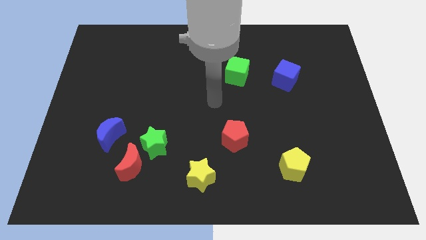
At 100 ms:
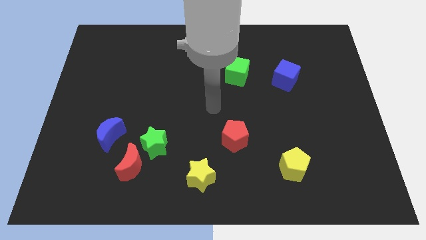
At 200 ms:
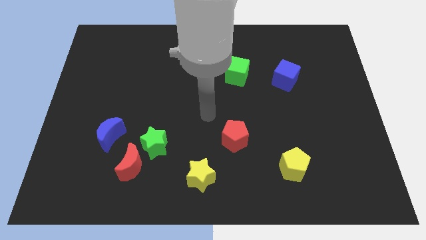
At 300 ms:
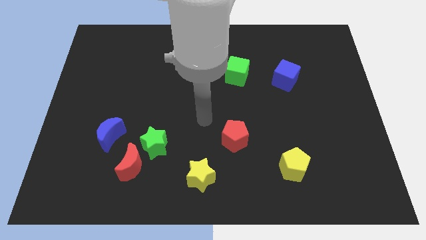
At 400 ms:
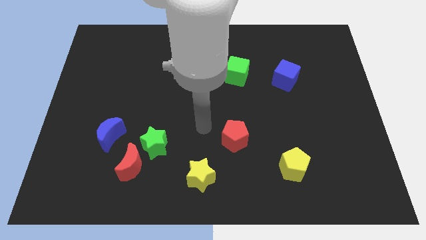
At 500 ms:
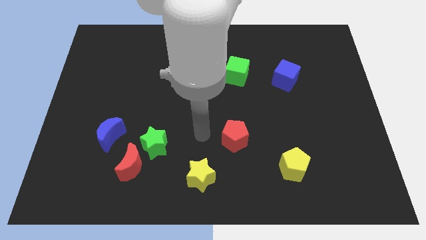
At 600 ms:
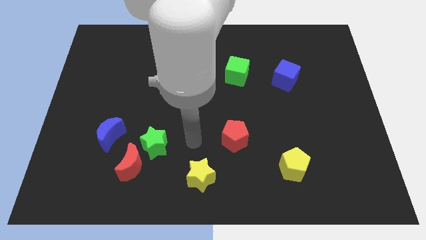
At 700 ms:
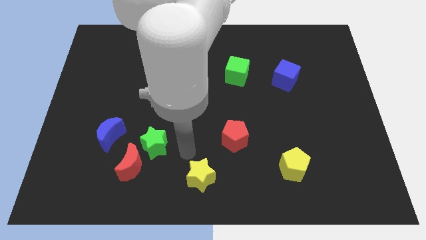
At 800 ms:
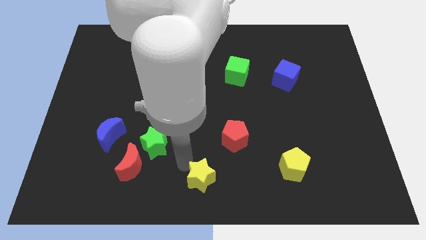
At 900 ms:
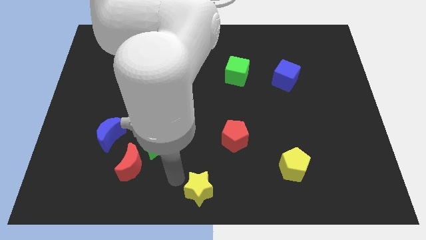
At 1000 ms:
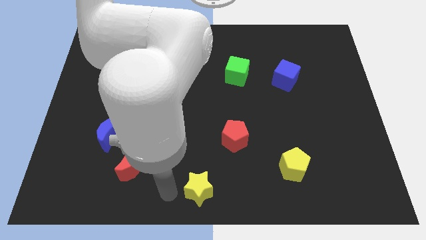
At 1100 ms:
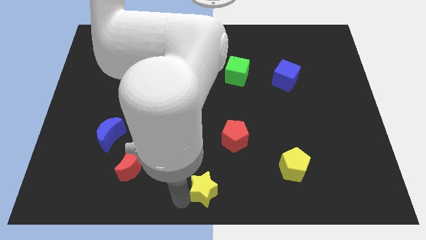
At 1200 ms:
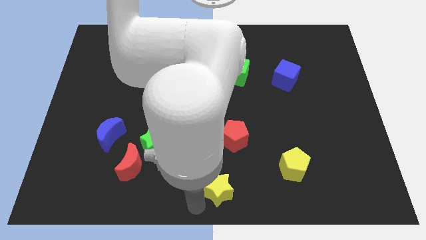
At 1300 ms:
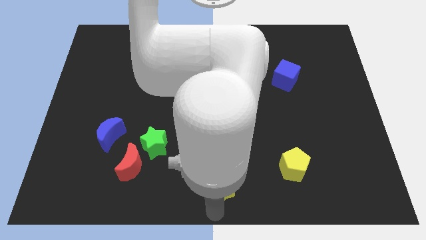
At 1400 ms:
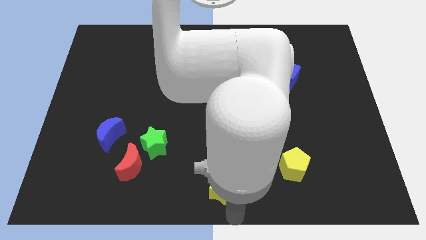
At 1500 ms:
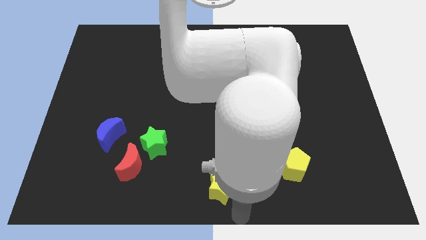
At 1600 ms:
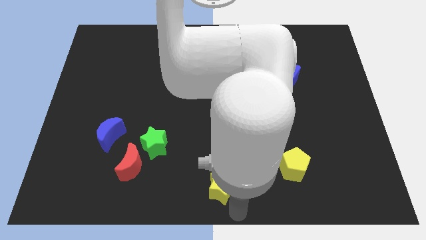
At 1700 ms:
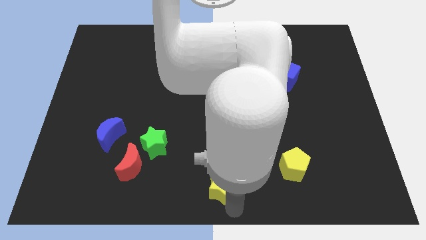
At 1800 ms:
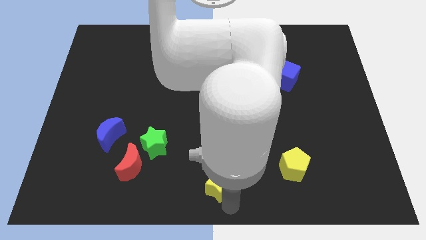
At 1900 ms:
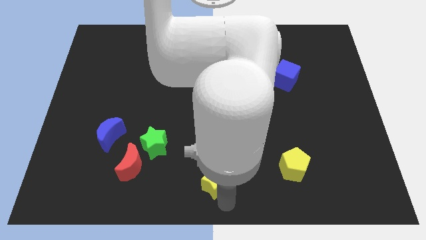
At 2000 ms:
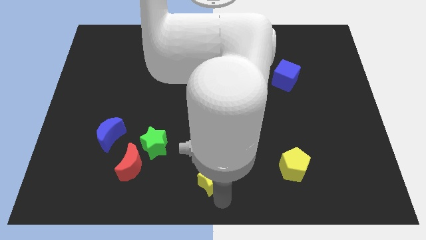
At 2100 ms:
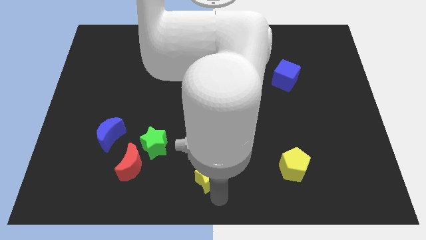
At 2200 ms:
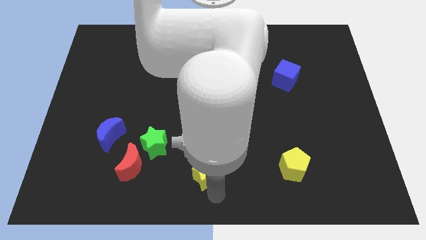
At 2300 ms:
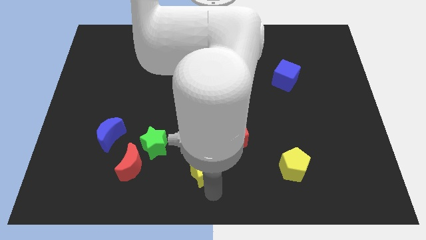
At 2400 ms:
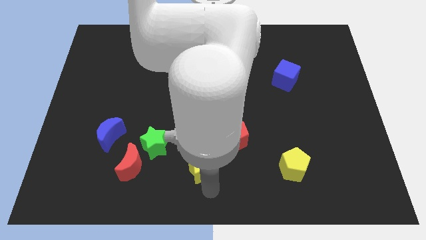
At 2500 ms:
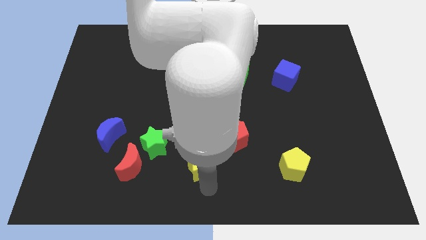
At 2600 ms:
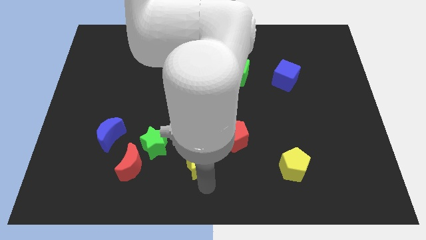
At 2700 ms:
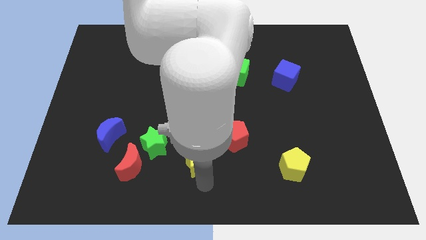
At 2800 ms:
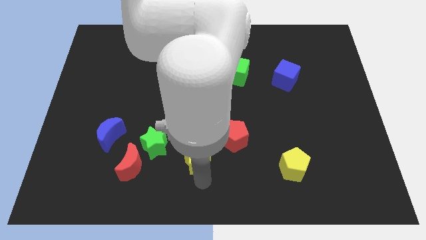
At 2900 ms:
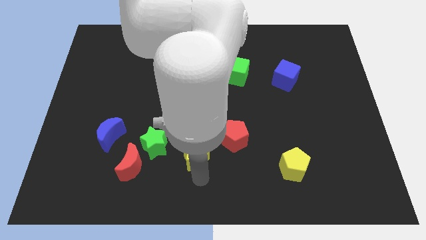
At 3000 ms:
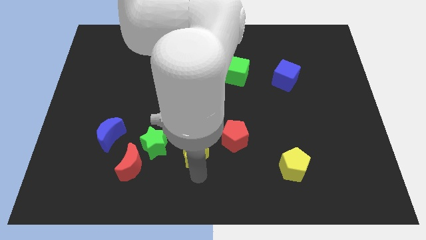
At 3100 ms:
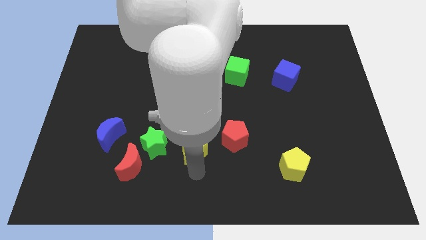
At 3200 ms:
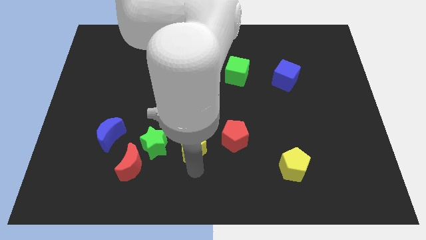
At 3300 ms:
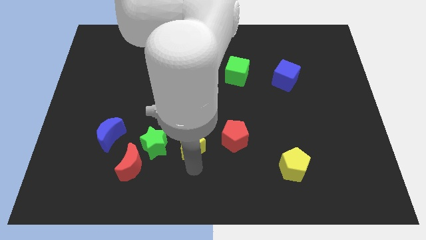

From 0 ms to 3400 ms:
move the yellow star slightly up

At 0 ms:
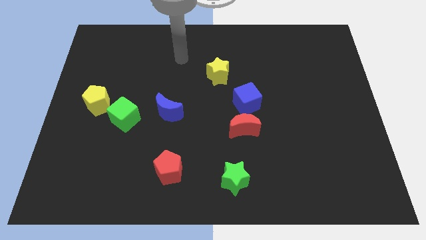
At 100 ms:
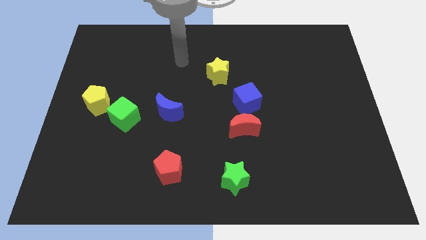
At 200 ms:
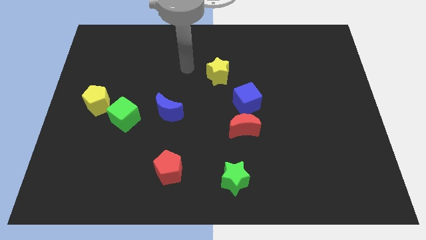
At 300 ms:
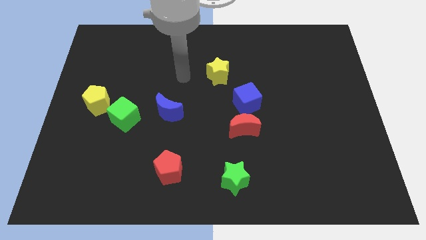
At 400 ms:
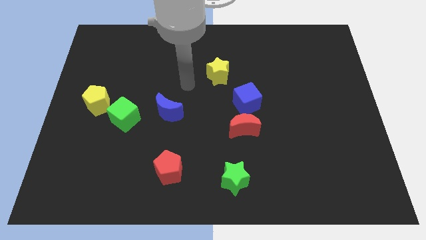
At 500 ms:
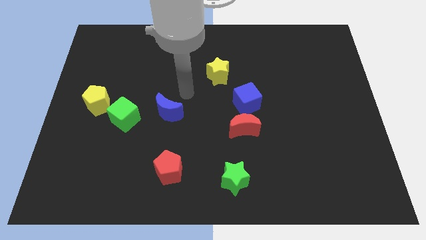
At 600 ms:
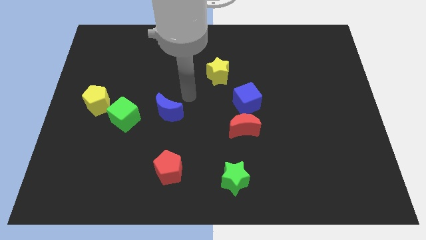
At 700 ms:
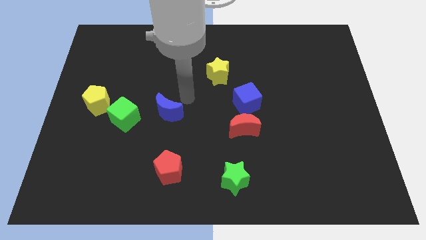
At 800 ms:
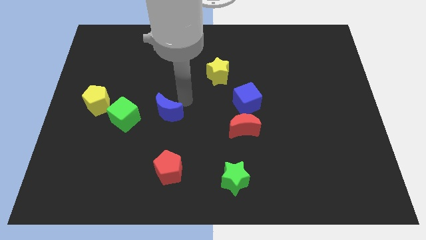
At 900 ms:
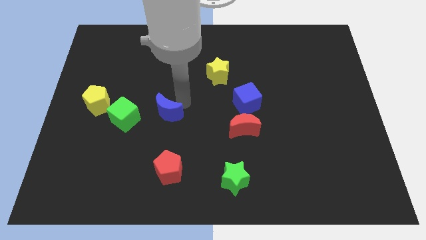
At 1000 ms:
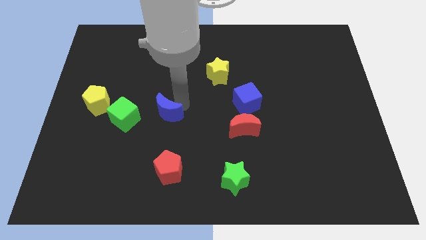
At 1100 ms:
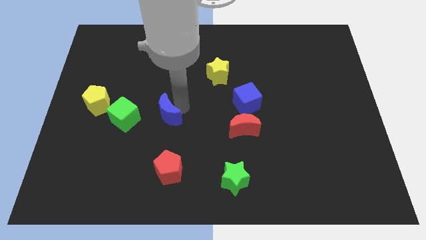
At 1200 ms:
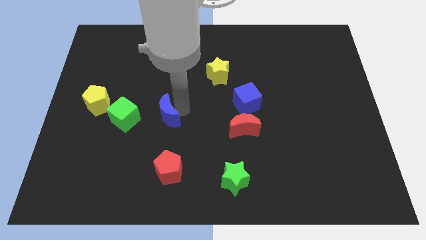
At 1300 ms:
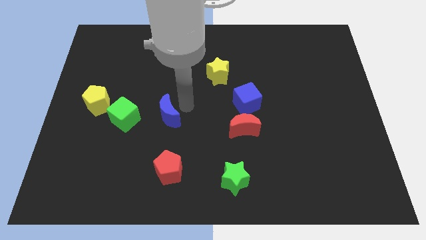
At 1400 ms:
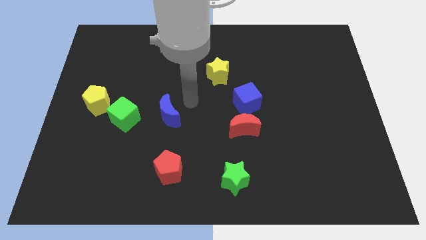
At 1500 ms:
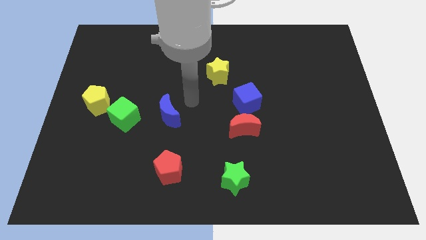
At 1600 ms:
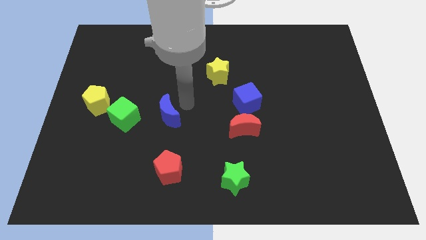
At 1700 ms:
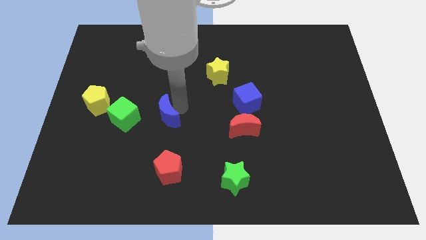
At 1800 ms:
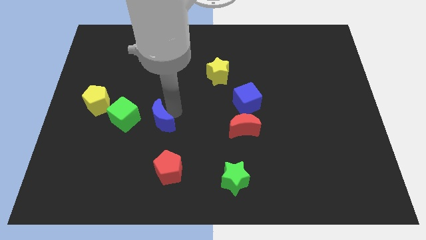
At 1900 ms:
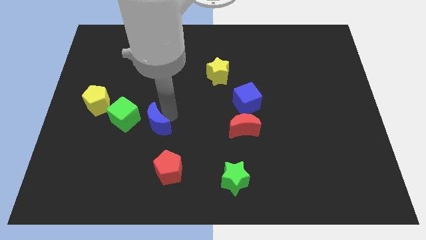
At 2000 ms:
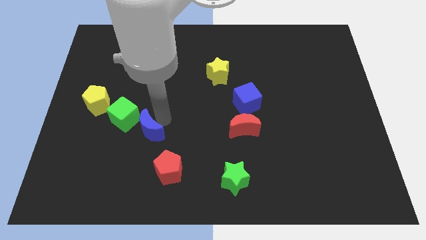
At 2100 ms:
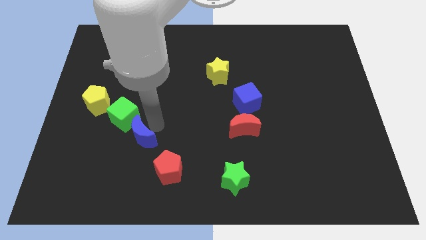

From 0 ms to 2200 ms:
move the blue moon a little downwards and left

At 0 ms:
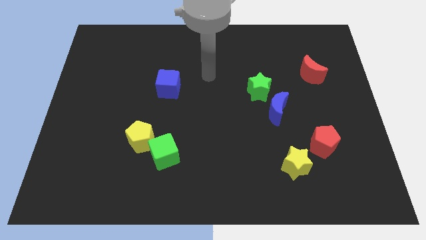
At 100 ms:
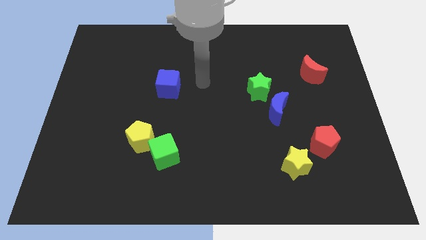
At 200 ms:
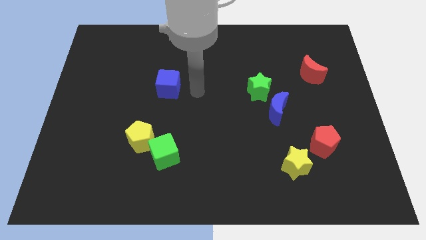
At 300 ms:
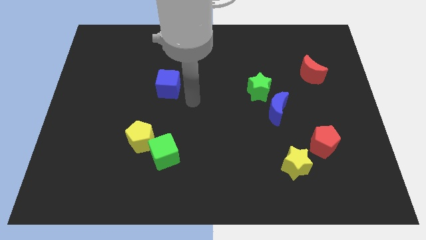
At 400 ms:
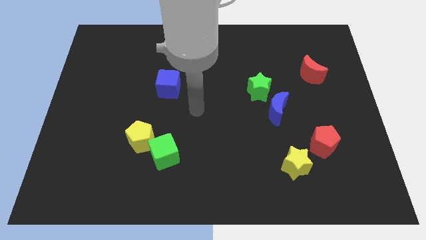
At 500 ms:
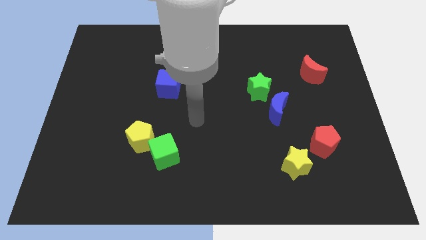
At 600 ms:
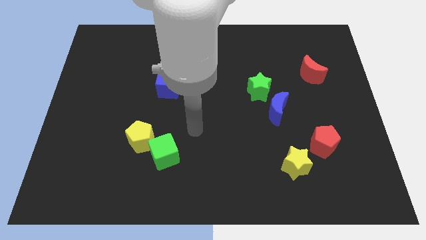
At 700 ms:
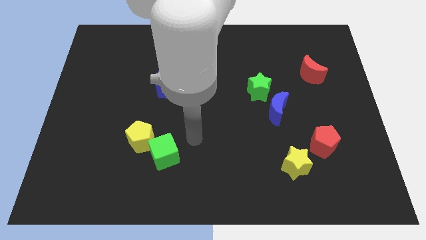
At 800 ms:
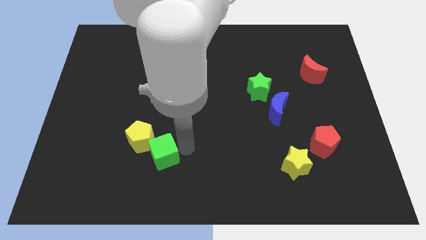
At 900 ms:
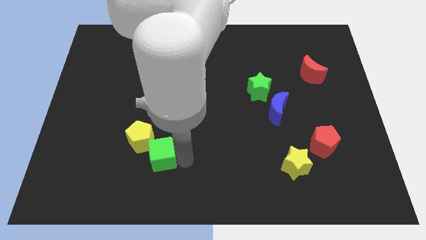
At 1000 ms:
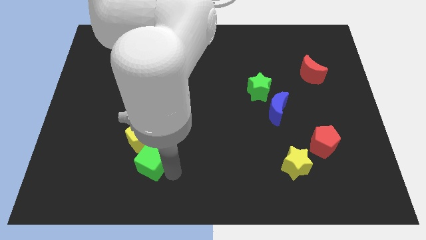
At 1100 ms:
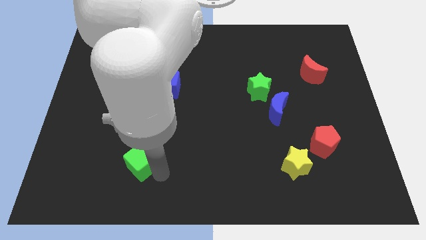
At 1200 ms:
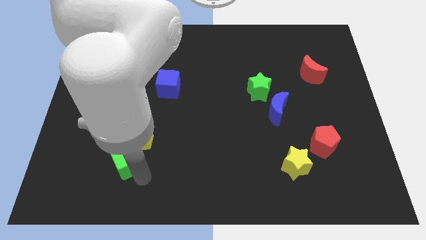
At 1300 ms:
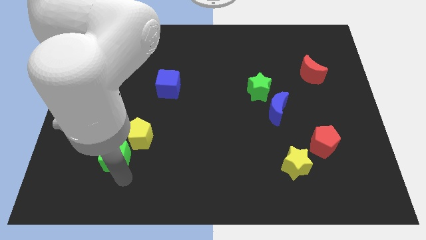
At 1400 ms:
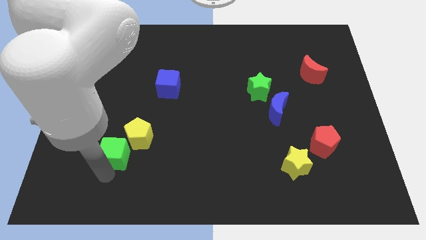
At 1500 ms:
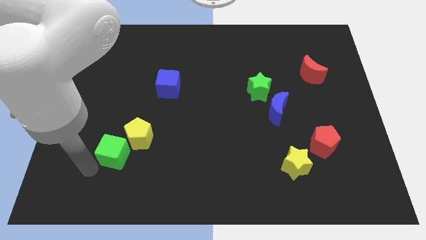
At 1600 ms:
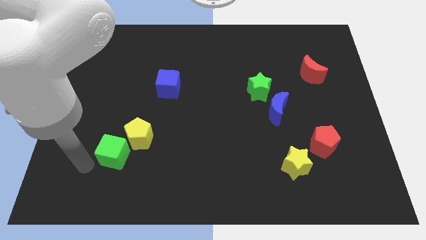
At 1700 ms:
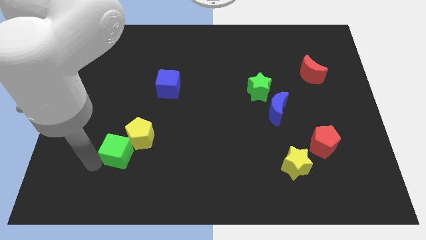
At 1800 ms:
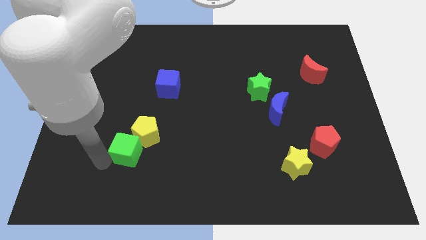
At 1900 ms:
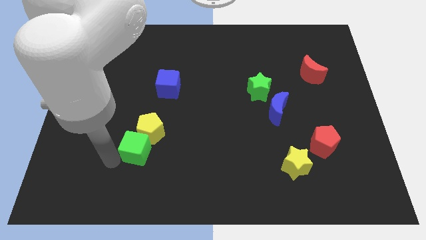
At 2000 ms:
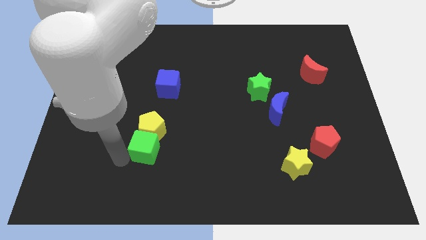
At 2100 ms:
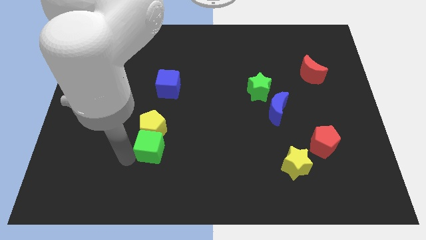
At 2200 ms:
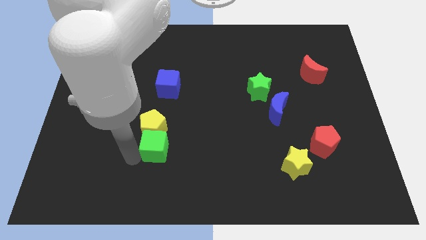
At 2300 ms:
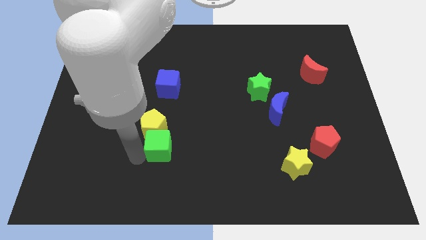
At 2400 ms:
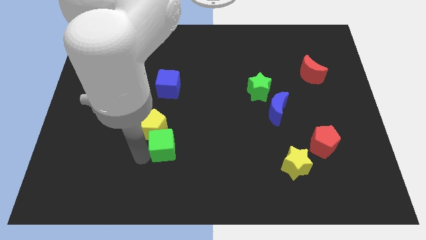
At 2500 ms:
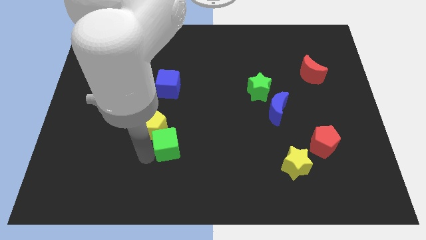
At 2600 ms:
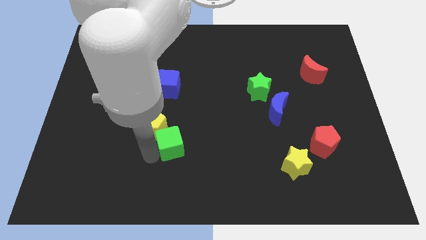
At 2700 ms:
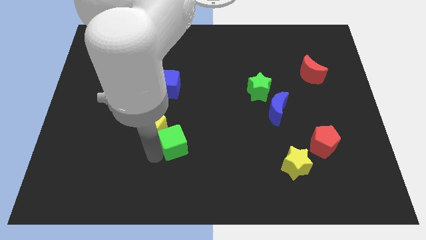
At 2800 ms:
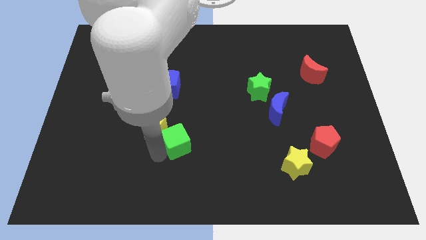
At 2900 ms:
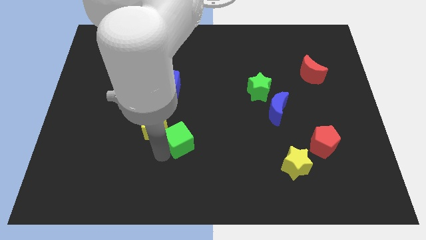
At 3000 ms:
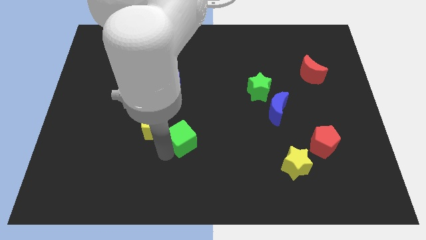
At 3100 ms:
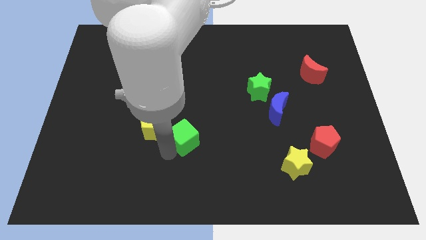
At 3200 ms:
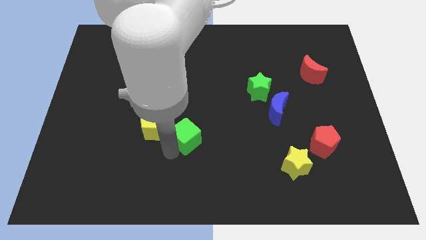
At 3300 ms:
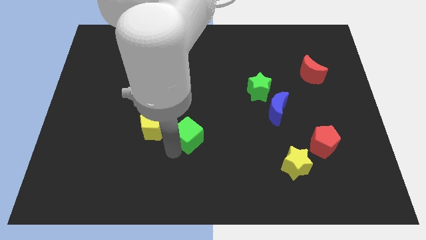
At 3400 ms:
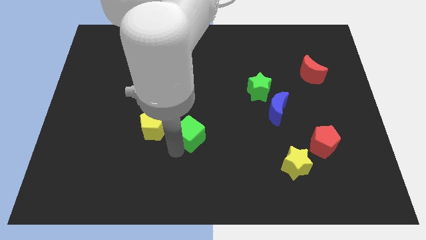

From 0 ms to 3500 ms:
move the green cube diagonally upwards and to the right slightly
